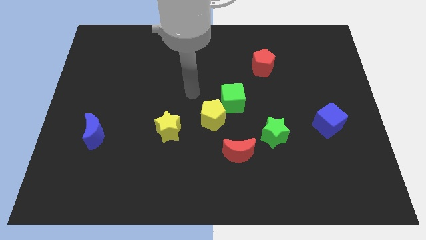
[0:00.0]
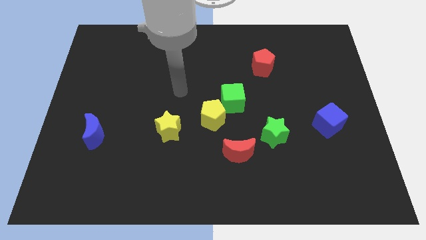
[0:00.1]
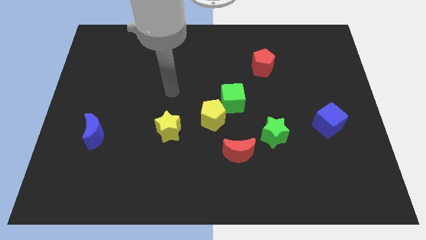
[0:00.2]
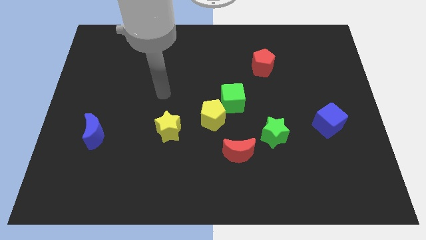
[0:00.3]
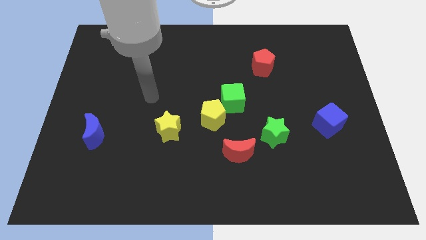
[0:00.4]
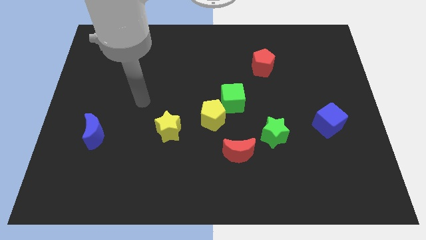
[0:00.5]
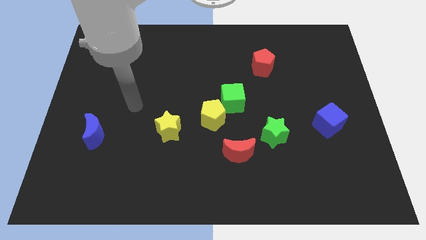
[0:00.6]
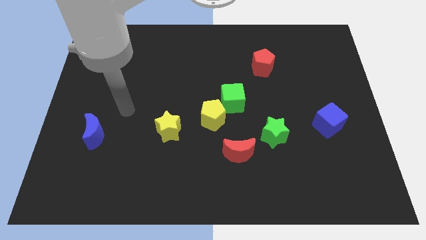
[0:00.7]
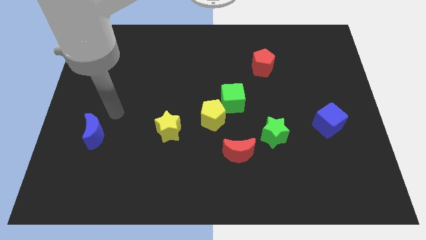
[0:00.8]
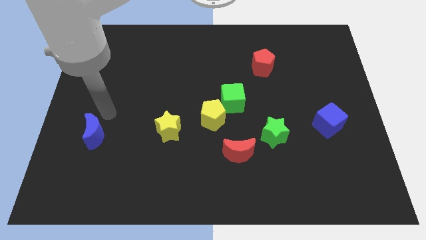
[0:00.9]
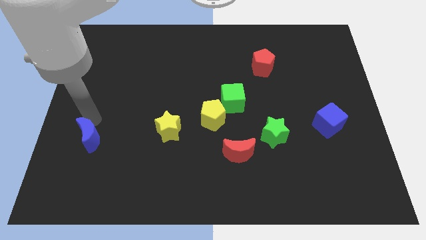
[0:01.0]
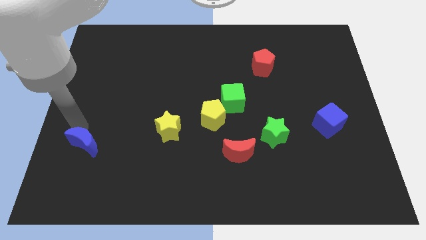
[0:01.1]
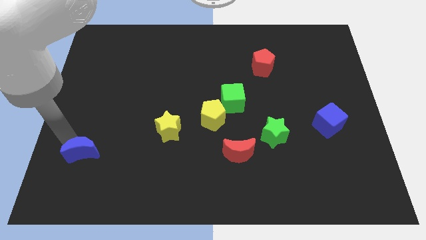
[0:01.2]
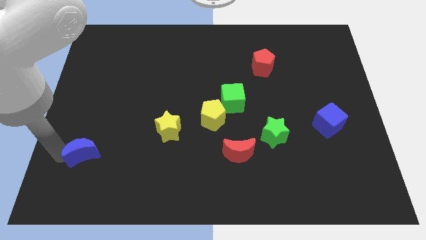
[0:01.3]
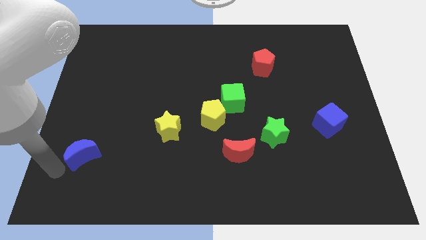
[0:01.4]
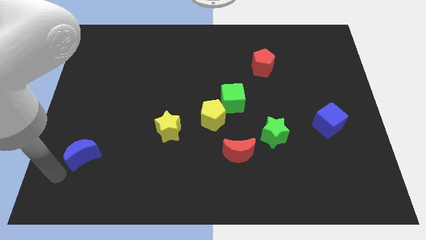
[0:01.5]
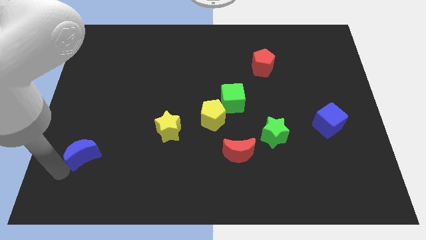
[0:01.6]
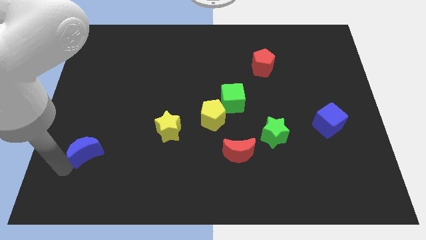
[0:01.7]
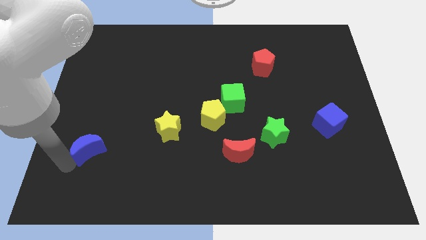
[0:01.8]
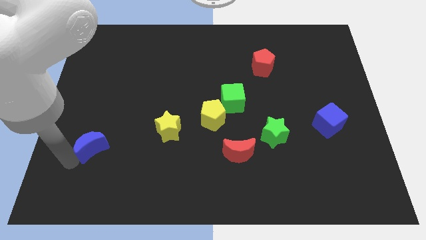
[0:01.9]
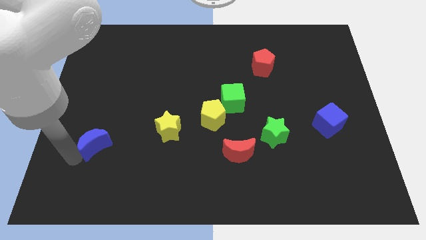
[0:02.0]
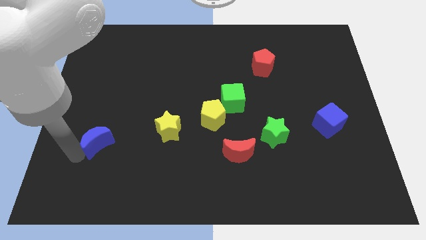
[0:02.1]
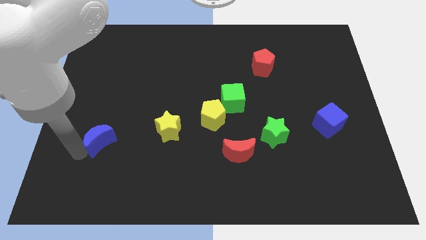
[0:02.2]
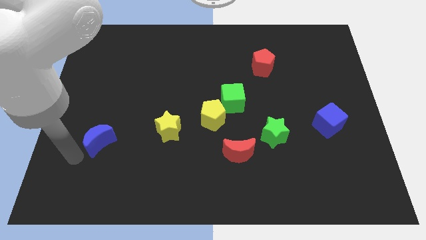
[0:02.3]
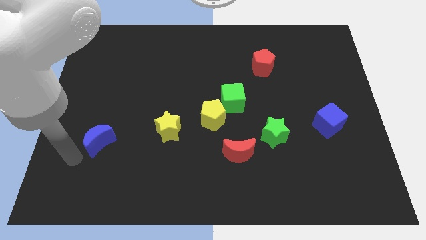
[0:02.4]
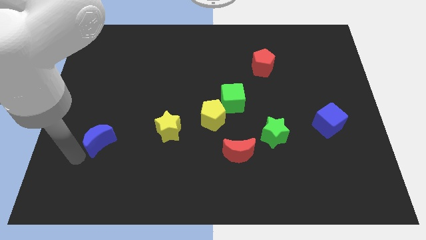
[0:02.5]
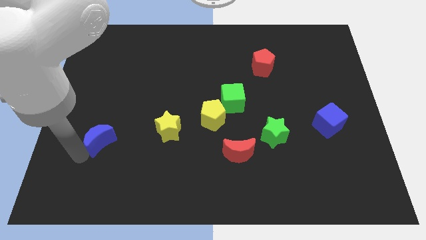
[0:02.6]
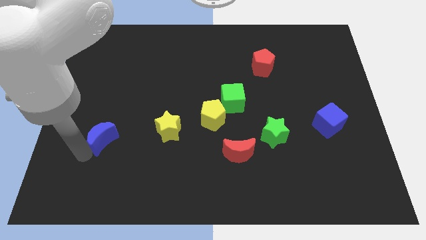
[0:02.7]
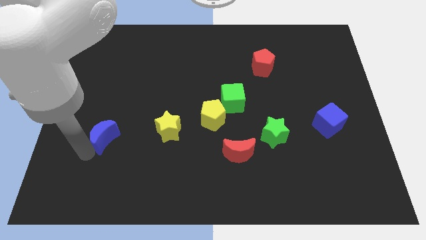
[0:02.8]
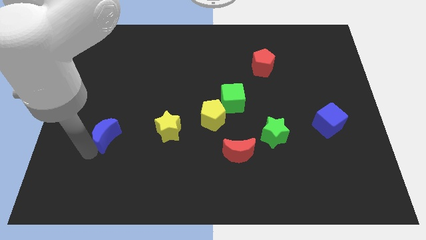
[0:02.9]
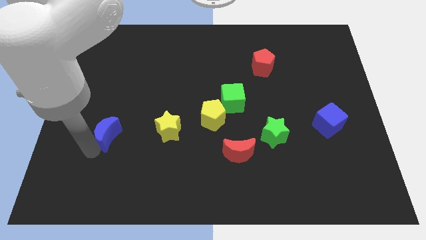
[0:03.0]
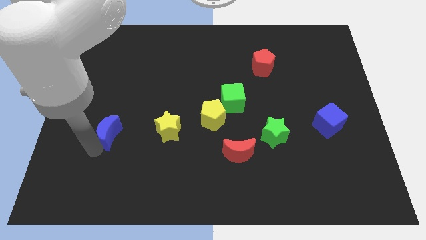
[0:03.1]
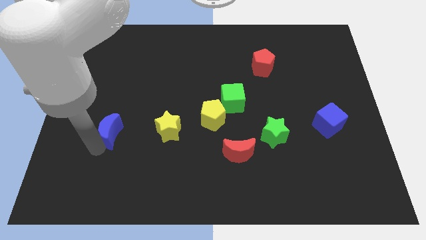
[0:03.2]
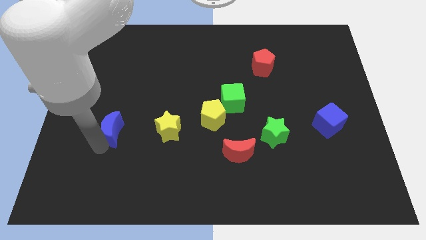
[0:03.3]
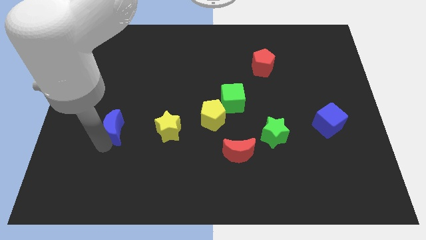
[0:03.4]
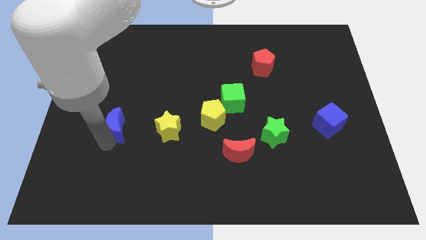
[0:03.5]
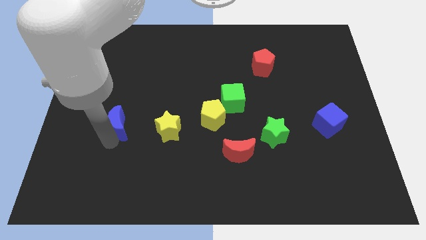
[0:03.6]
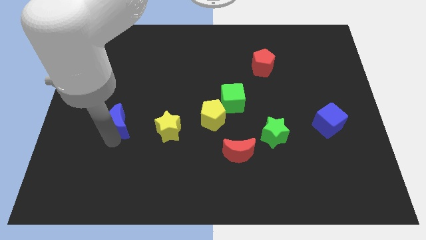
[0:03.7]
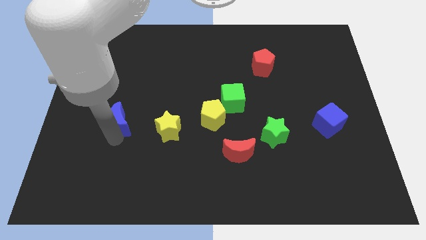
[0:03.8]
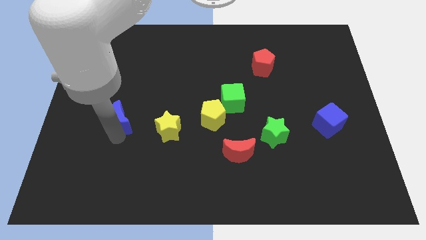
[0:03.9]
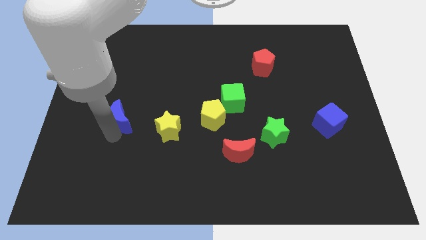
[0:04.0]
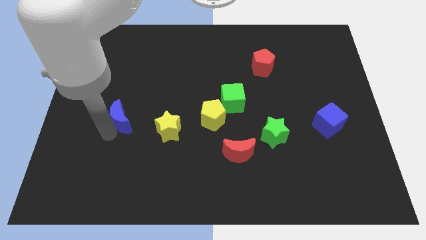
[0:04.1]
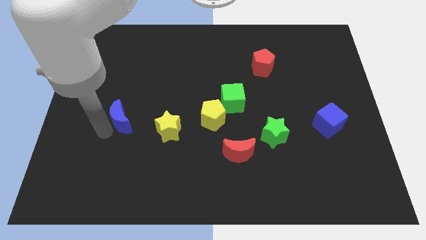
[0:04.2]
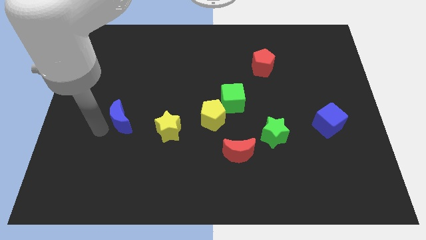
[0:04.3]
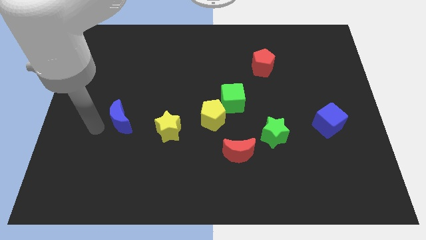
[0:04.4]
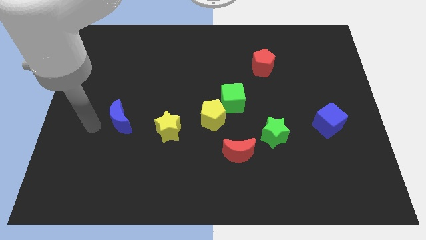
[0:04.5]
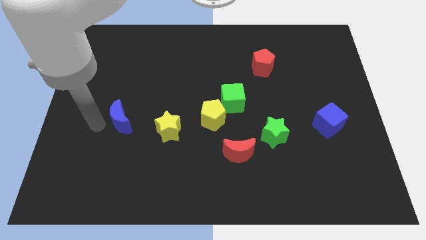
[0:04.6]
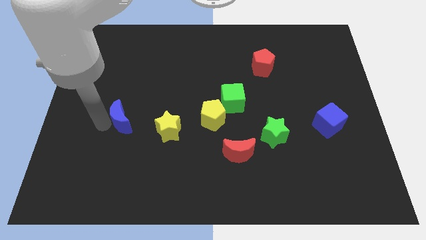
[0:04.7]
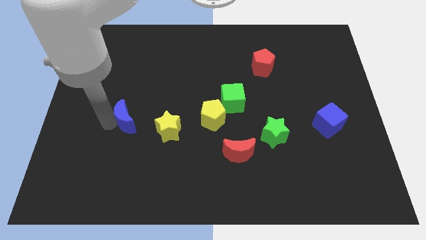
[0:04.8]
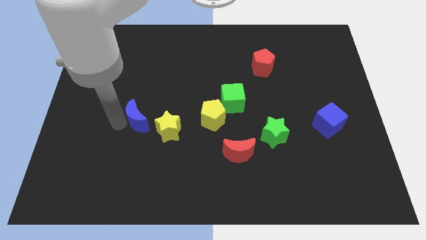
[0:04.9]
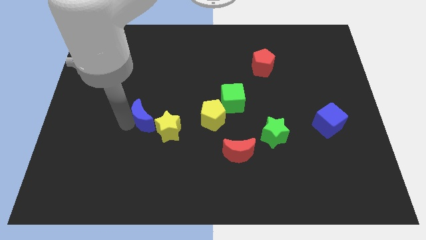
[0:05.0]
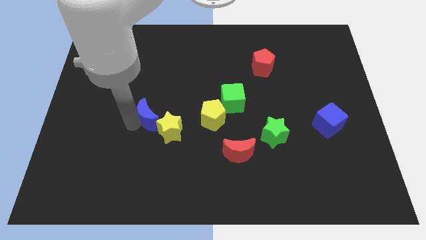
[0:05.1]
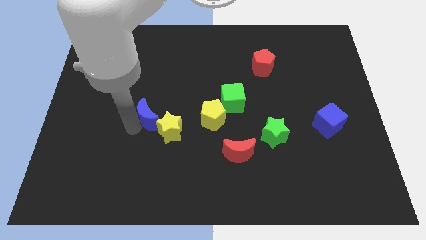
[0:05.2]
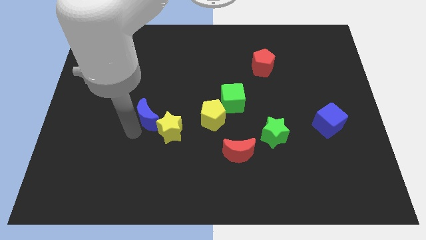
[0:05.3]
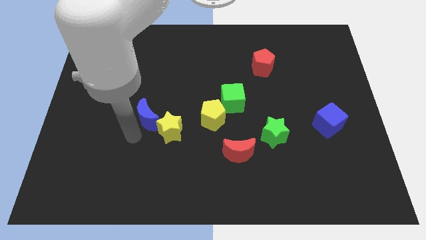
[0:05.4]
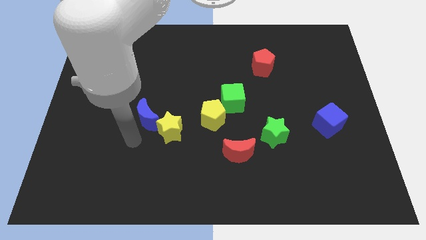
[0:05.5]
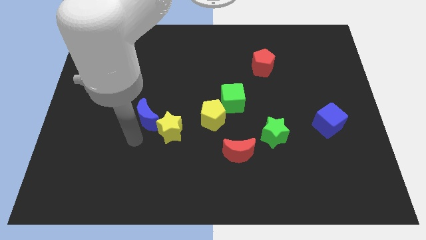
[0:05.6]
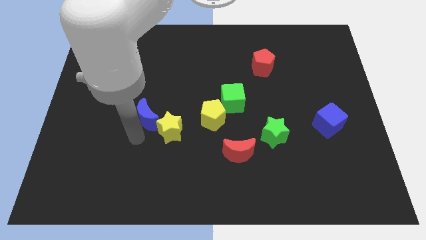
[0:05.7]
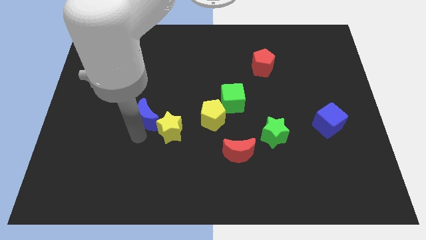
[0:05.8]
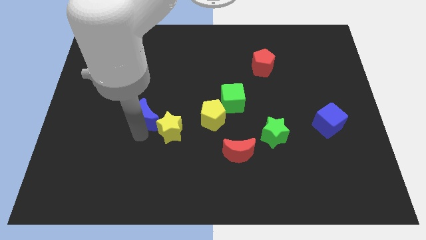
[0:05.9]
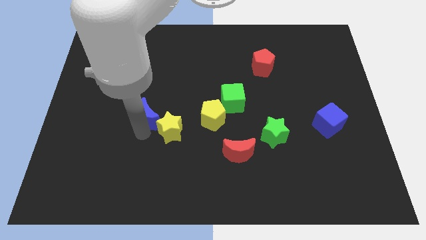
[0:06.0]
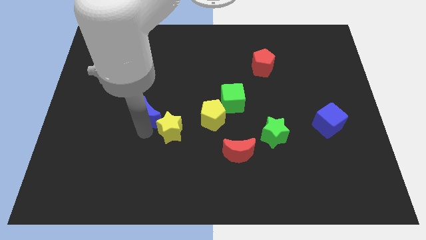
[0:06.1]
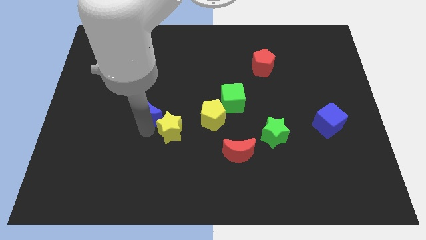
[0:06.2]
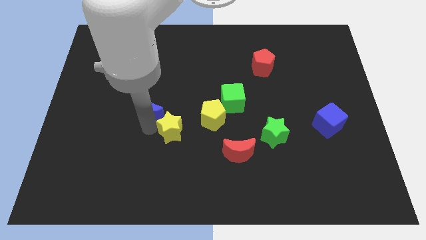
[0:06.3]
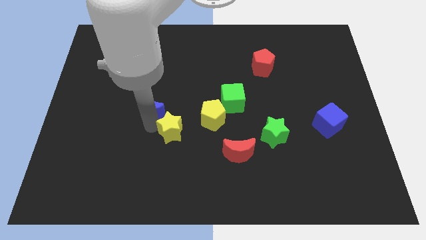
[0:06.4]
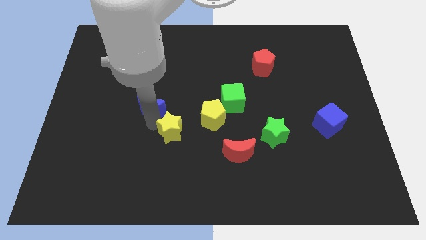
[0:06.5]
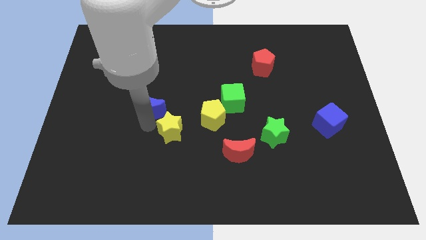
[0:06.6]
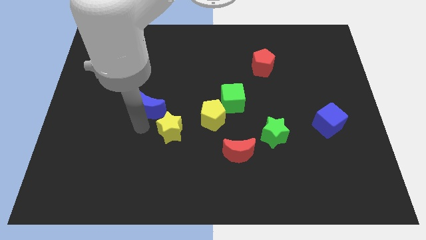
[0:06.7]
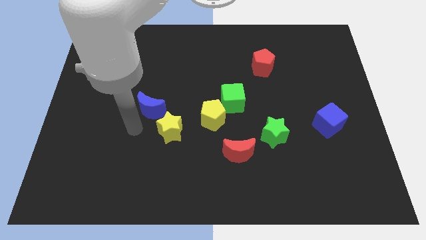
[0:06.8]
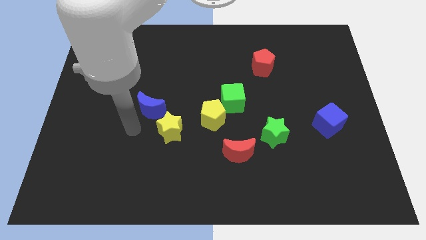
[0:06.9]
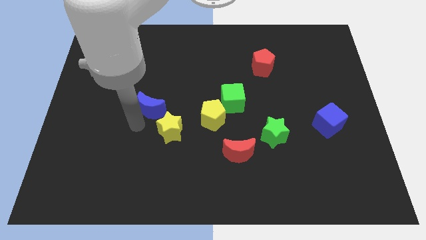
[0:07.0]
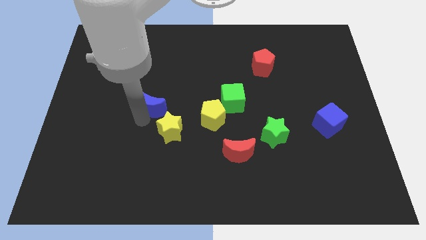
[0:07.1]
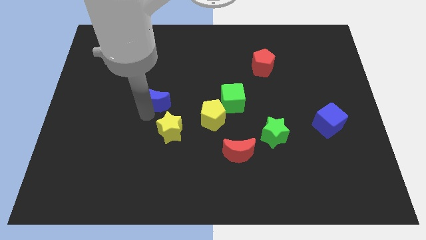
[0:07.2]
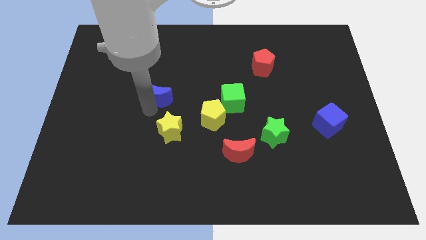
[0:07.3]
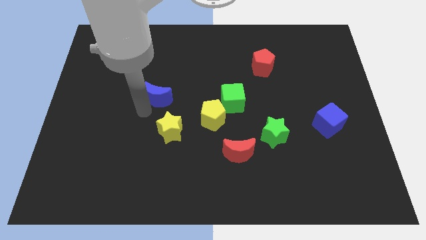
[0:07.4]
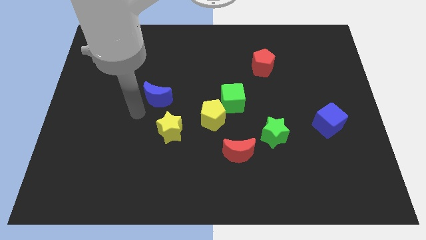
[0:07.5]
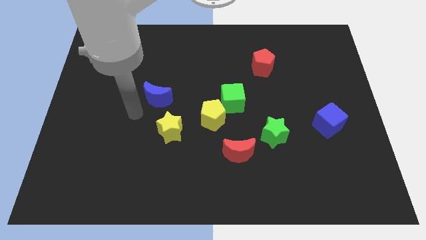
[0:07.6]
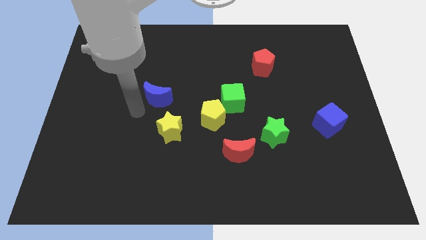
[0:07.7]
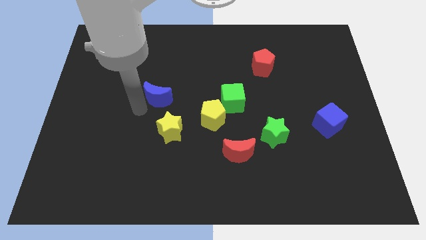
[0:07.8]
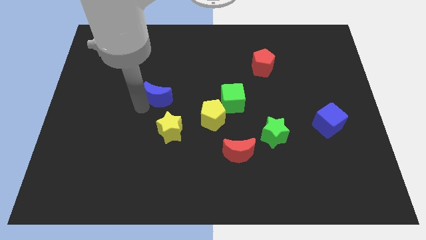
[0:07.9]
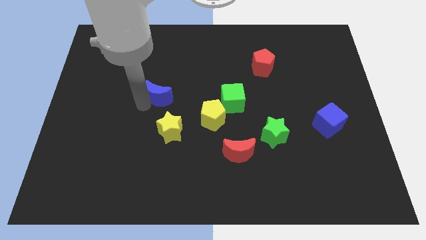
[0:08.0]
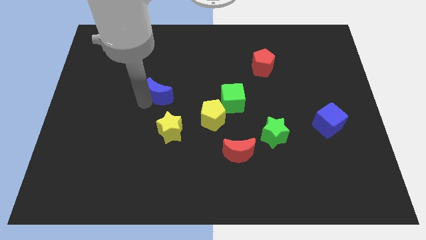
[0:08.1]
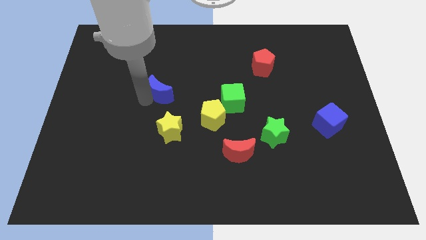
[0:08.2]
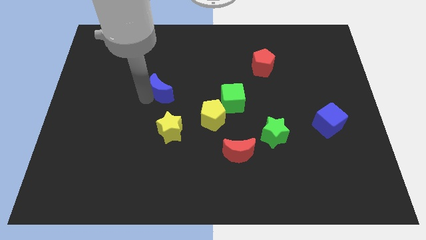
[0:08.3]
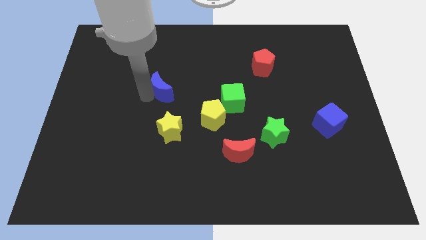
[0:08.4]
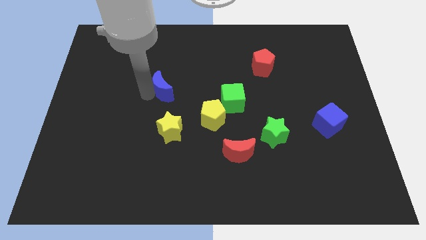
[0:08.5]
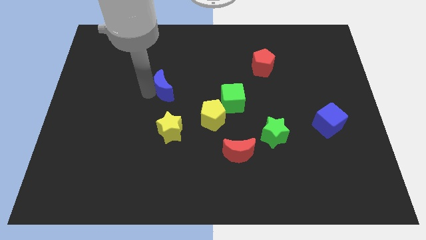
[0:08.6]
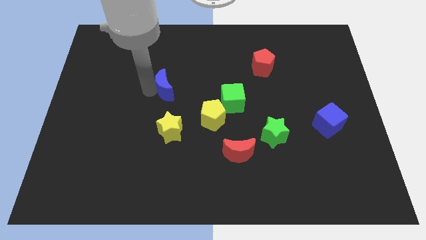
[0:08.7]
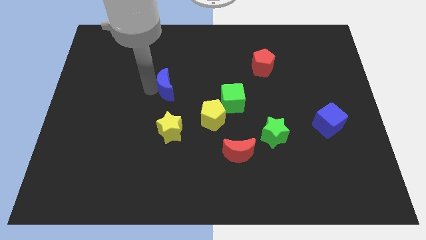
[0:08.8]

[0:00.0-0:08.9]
move the blue moon upwards and right diagonally
